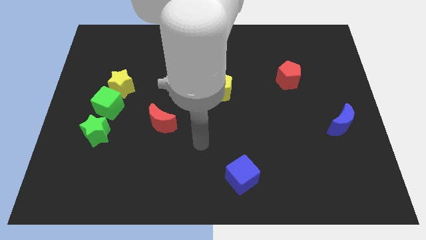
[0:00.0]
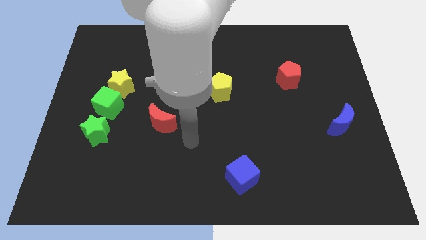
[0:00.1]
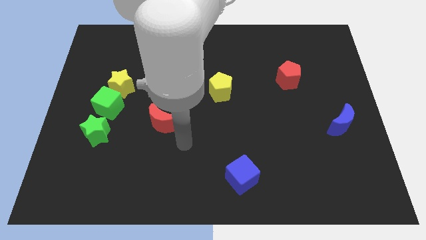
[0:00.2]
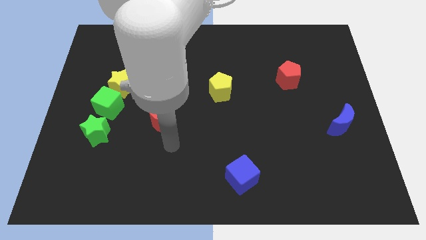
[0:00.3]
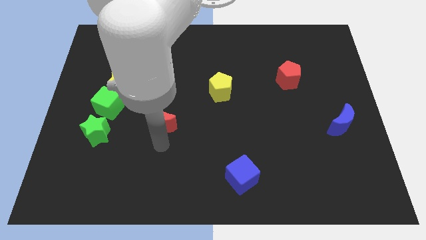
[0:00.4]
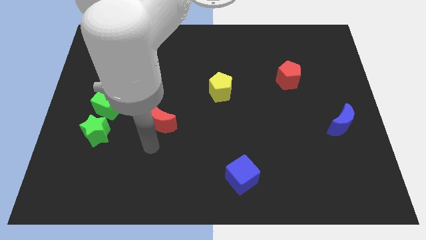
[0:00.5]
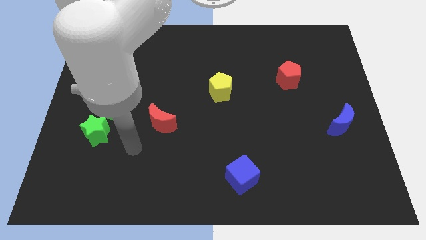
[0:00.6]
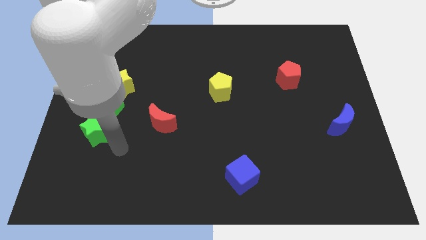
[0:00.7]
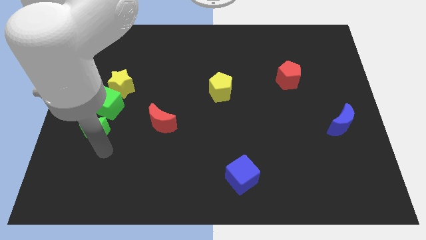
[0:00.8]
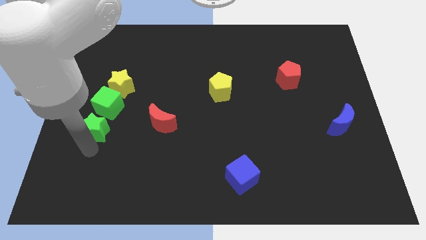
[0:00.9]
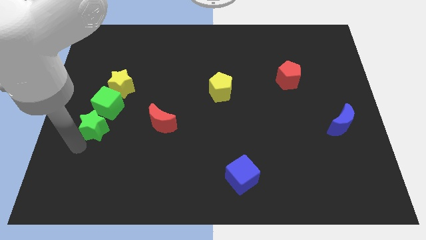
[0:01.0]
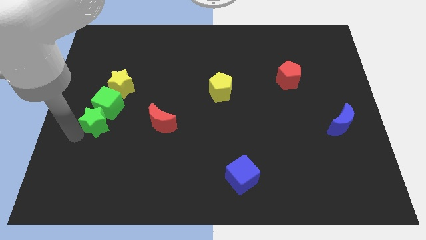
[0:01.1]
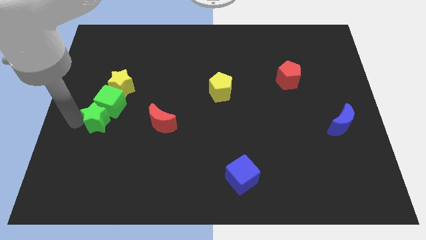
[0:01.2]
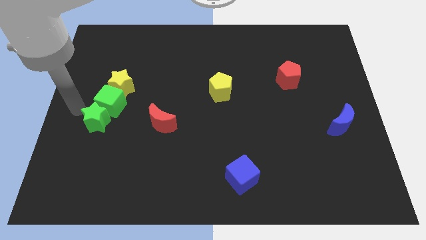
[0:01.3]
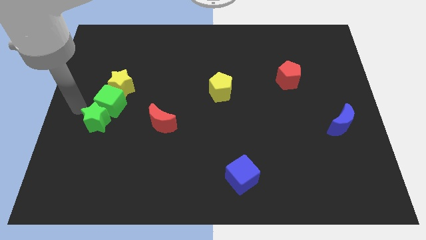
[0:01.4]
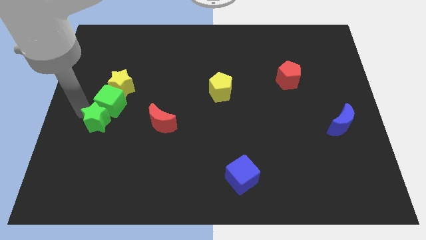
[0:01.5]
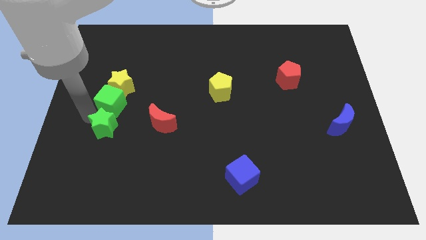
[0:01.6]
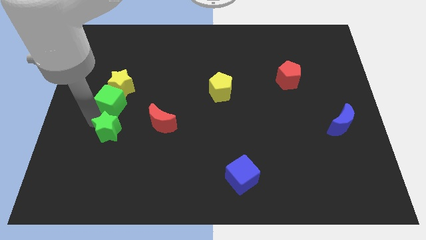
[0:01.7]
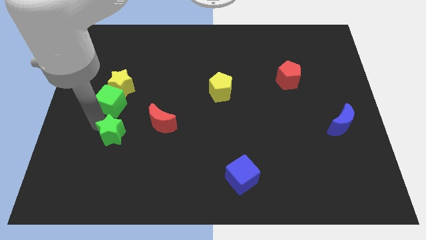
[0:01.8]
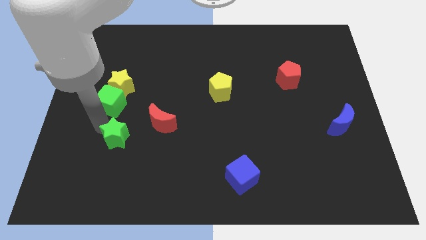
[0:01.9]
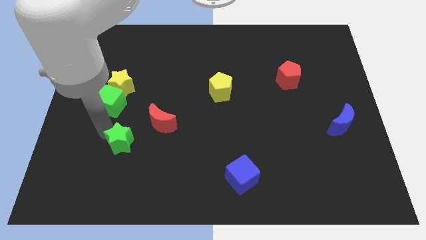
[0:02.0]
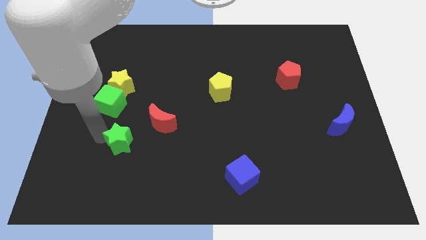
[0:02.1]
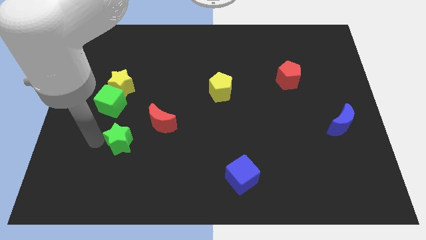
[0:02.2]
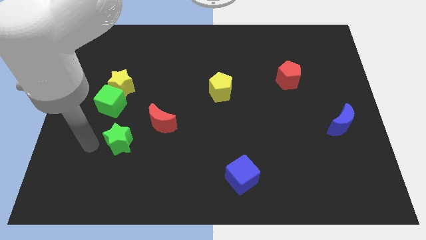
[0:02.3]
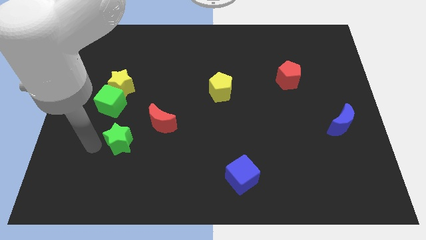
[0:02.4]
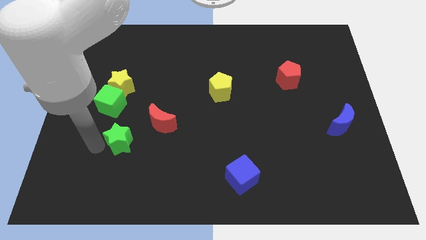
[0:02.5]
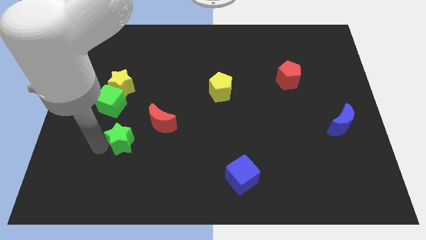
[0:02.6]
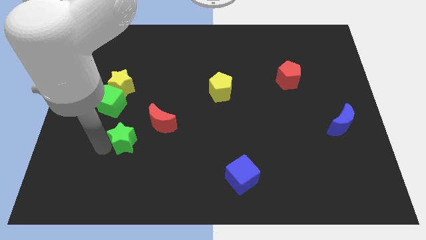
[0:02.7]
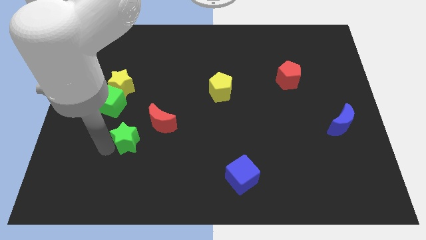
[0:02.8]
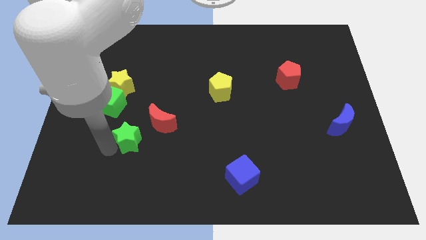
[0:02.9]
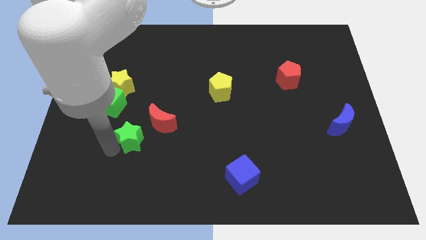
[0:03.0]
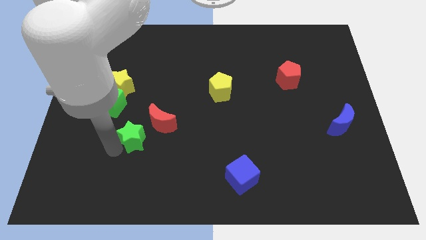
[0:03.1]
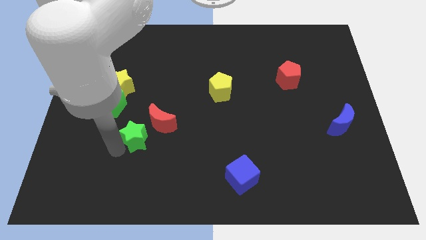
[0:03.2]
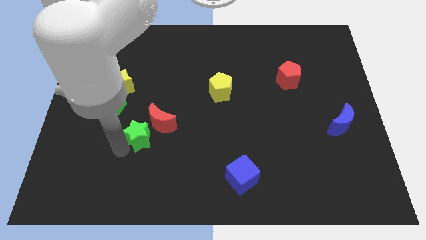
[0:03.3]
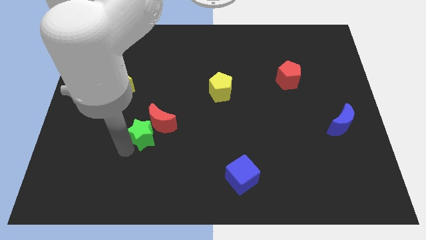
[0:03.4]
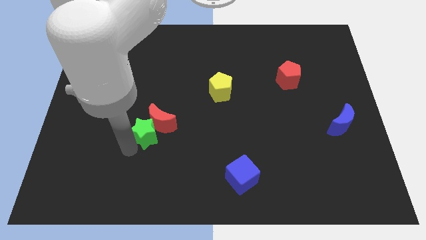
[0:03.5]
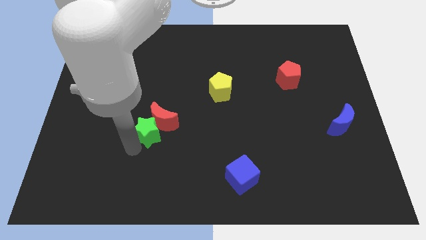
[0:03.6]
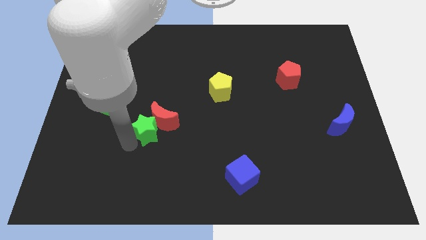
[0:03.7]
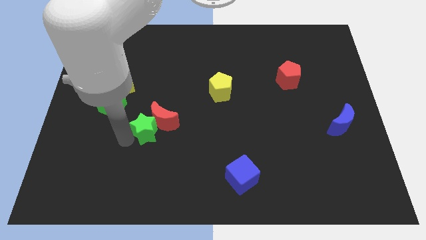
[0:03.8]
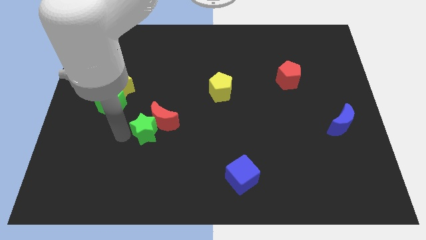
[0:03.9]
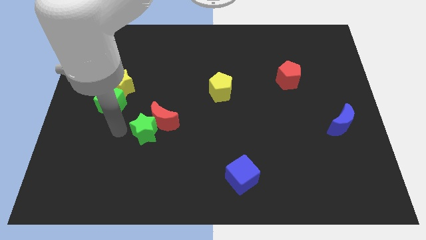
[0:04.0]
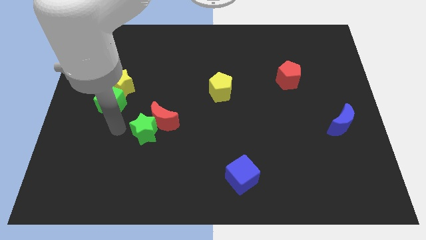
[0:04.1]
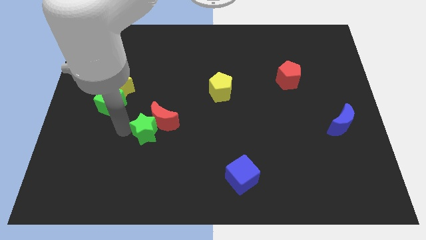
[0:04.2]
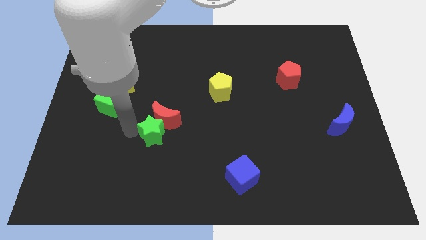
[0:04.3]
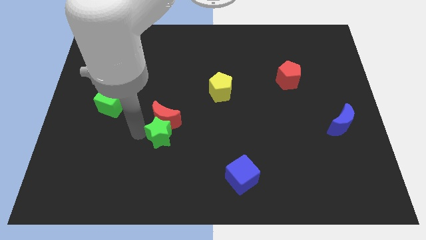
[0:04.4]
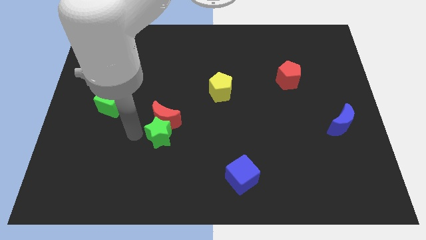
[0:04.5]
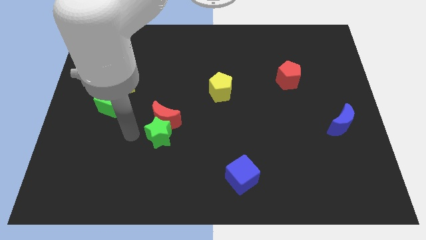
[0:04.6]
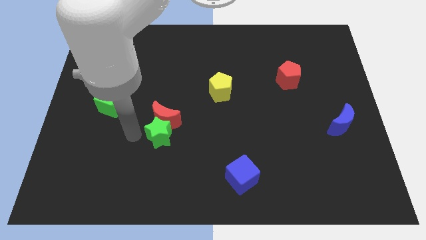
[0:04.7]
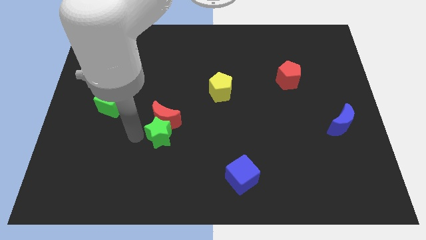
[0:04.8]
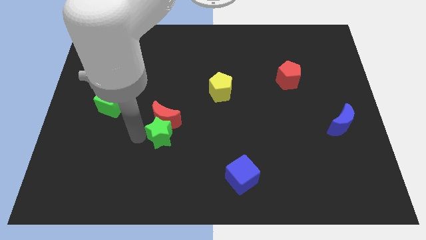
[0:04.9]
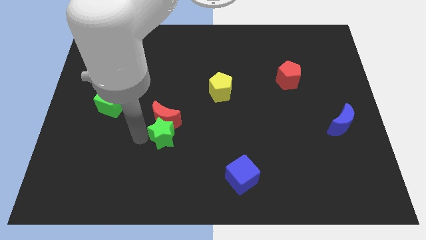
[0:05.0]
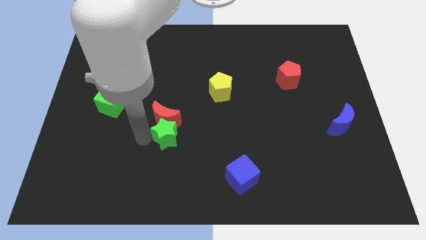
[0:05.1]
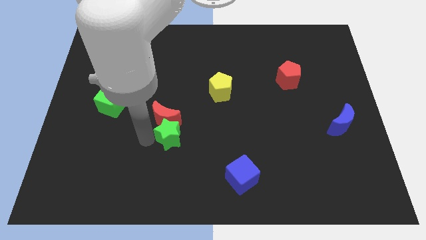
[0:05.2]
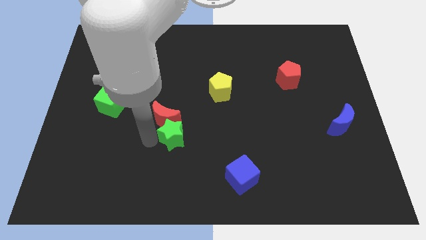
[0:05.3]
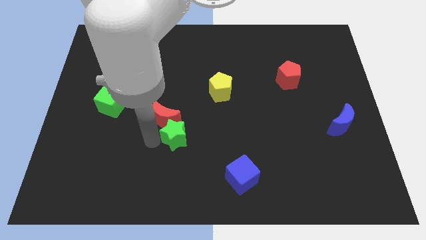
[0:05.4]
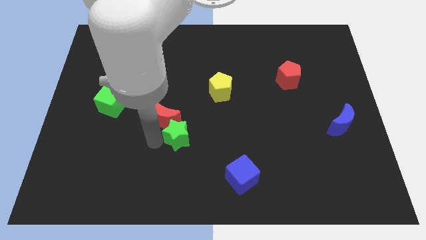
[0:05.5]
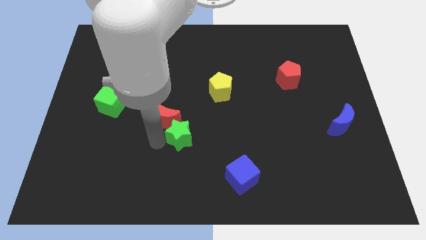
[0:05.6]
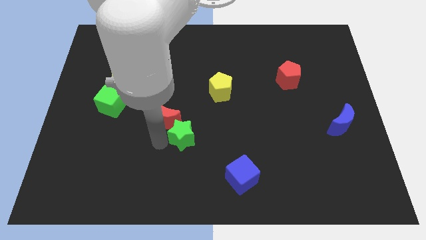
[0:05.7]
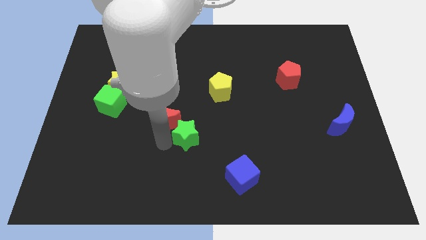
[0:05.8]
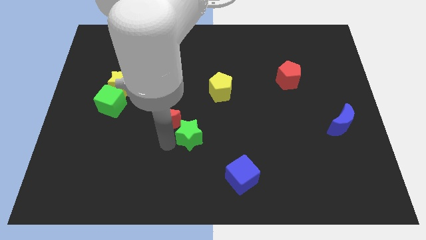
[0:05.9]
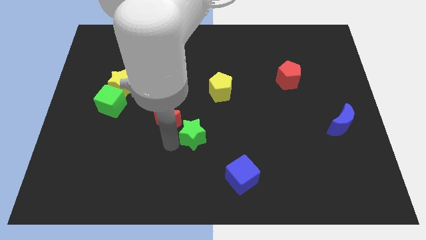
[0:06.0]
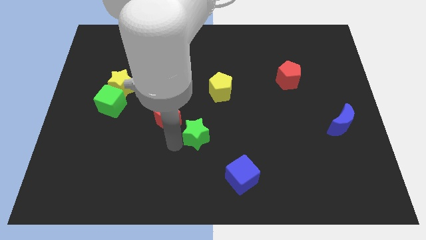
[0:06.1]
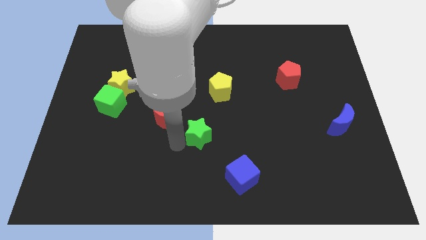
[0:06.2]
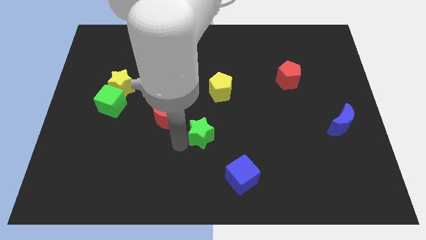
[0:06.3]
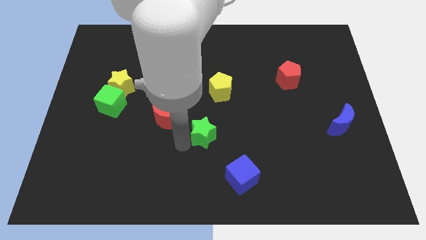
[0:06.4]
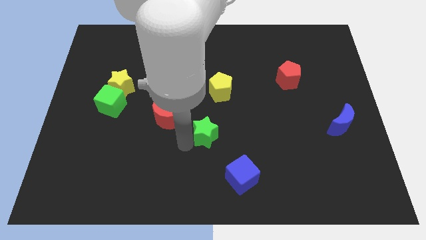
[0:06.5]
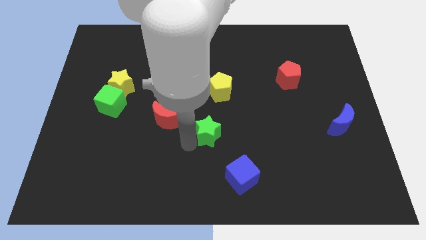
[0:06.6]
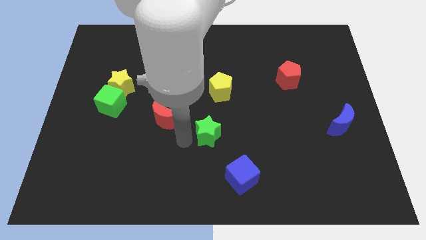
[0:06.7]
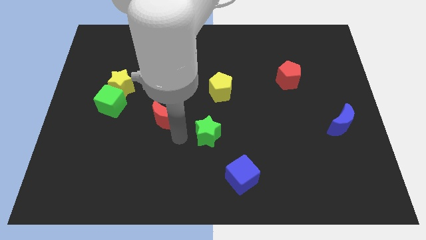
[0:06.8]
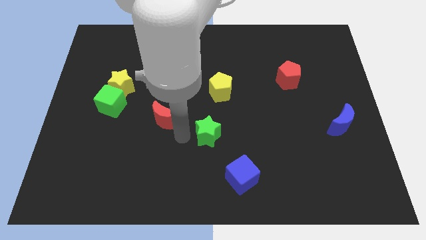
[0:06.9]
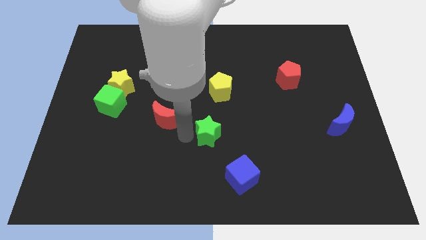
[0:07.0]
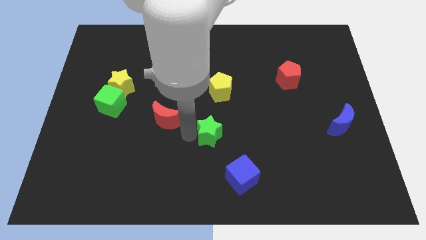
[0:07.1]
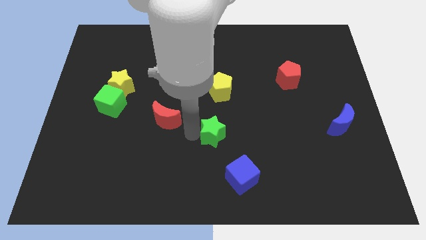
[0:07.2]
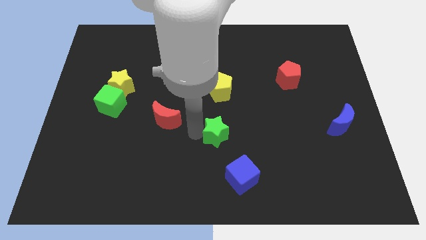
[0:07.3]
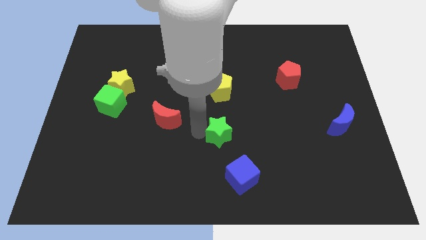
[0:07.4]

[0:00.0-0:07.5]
push the green star to the top side of the blue cube
